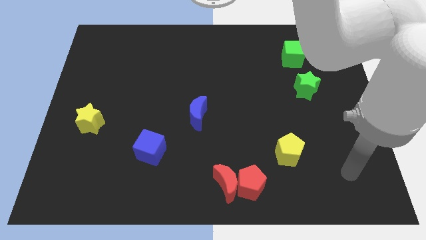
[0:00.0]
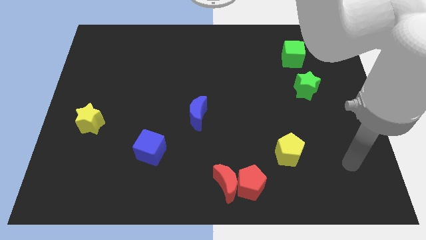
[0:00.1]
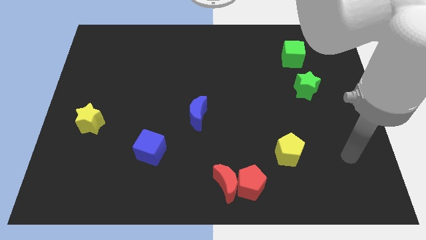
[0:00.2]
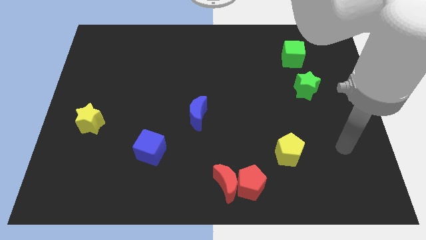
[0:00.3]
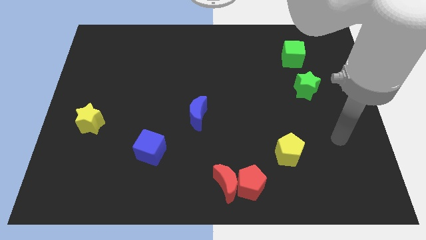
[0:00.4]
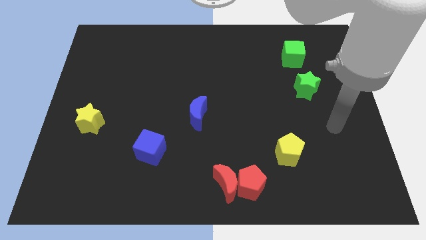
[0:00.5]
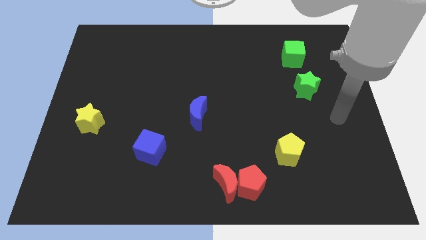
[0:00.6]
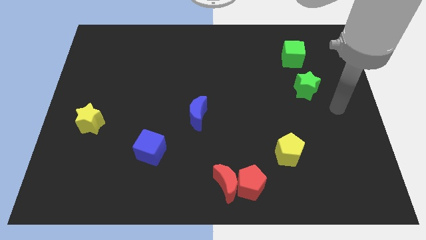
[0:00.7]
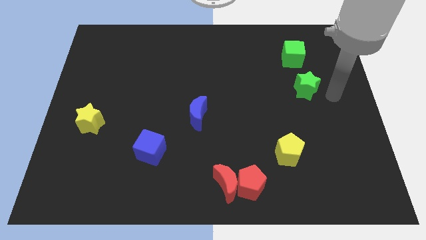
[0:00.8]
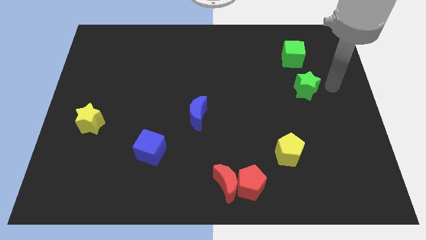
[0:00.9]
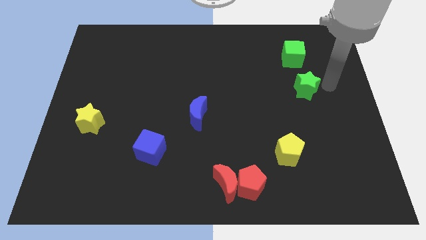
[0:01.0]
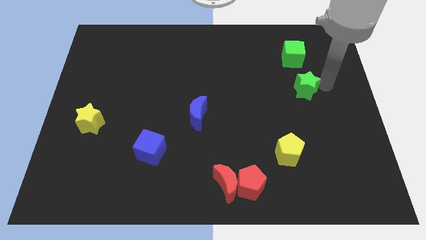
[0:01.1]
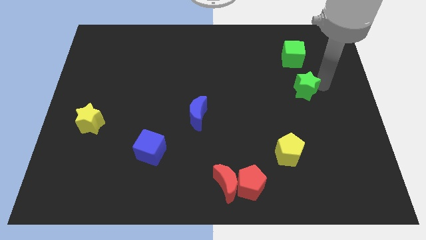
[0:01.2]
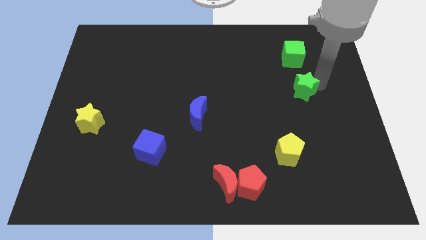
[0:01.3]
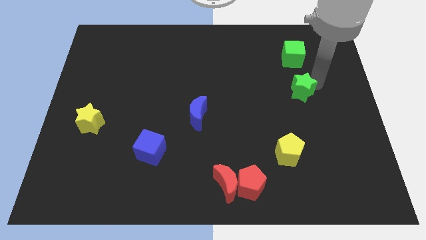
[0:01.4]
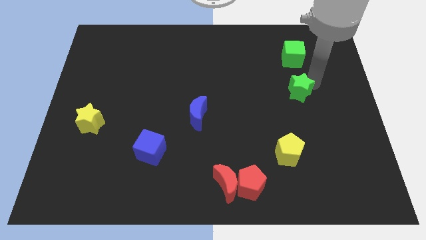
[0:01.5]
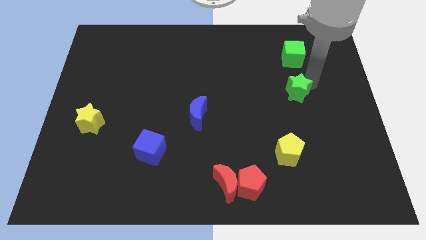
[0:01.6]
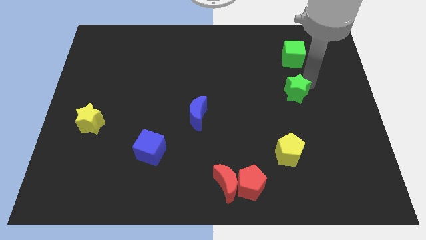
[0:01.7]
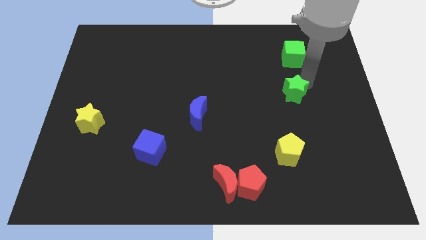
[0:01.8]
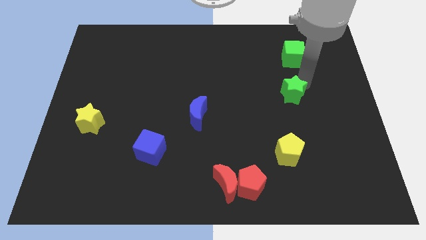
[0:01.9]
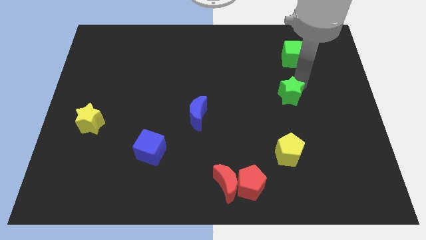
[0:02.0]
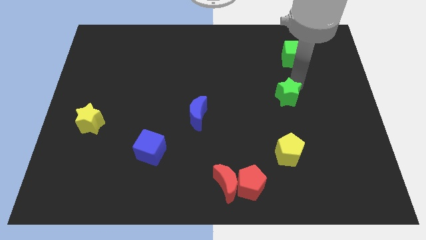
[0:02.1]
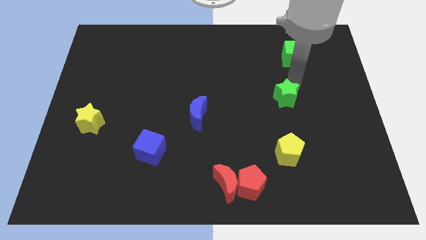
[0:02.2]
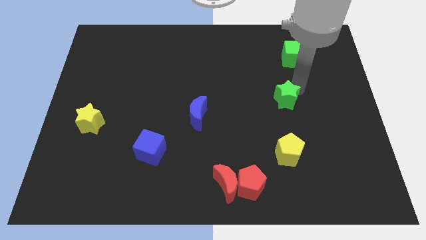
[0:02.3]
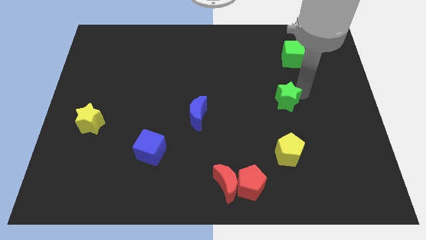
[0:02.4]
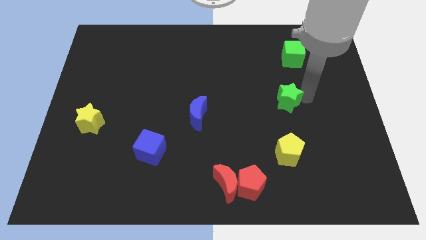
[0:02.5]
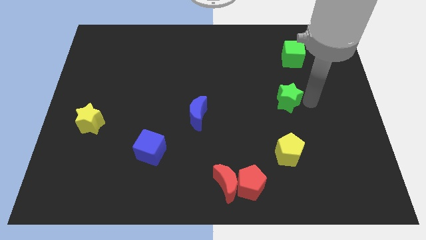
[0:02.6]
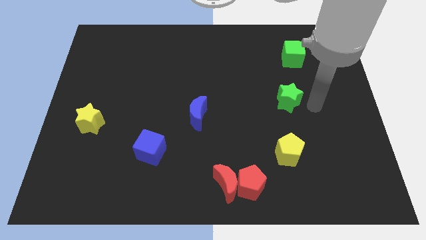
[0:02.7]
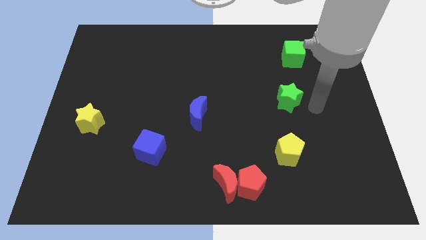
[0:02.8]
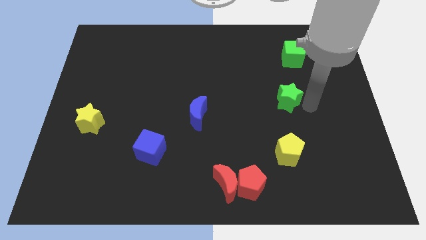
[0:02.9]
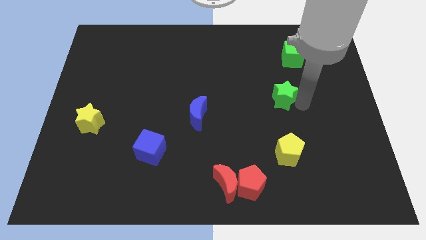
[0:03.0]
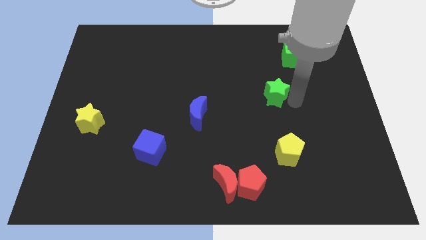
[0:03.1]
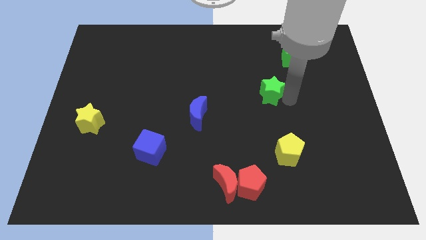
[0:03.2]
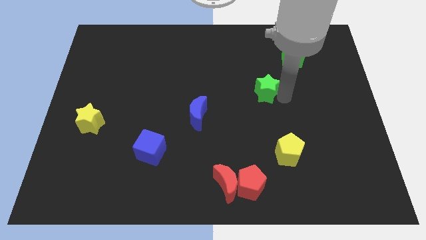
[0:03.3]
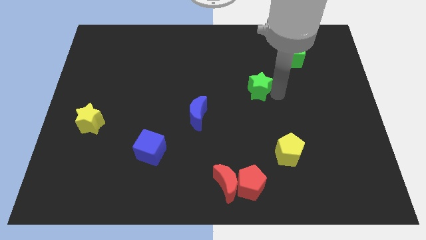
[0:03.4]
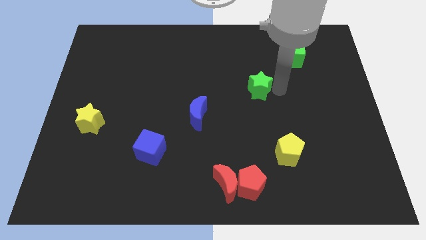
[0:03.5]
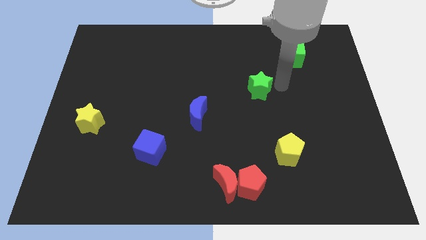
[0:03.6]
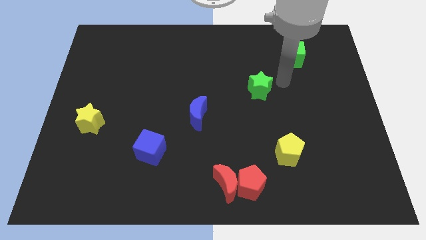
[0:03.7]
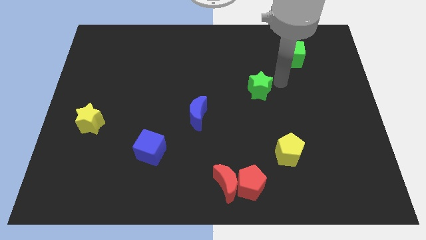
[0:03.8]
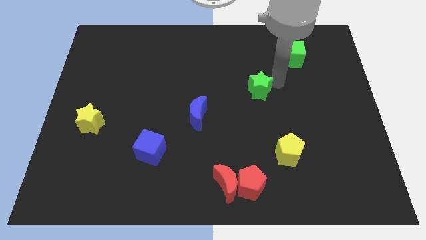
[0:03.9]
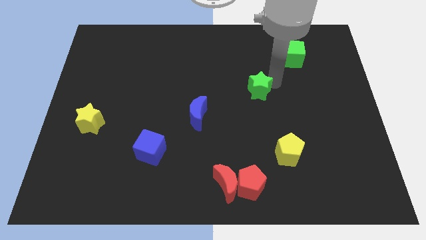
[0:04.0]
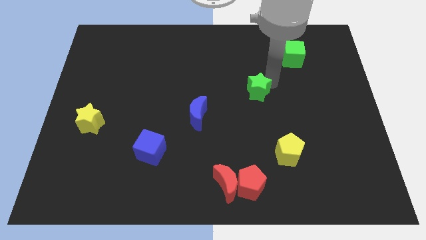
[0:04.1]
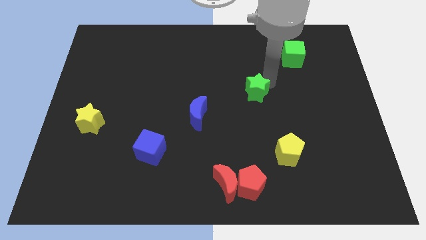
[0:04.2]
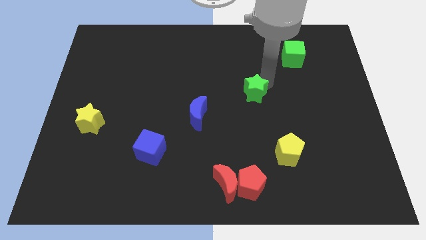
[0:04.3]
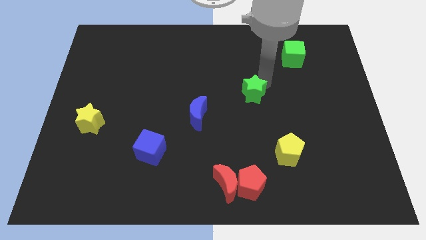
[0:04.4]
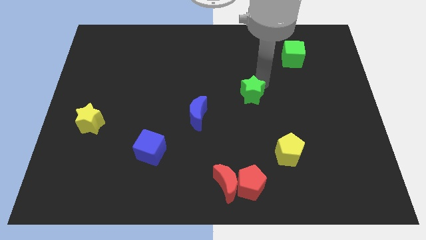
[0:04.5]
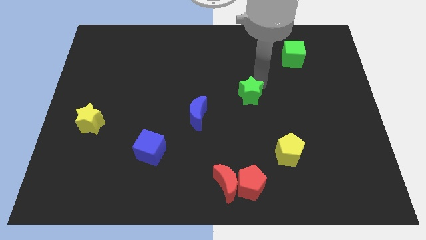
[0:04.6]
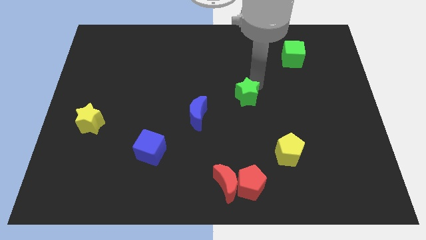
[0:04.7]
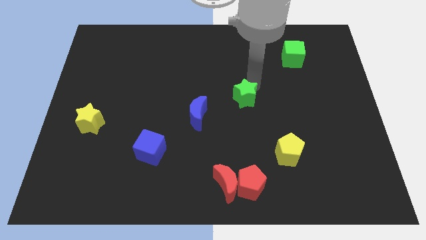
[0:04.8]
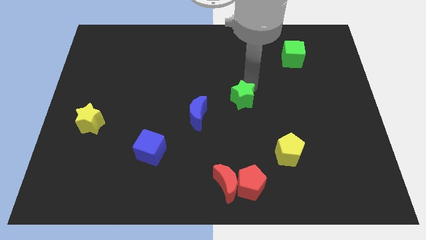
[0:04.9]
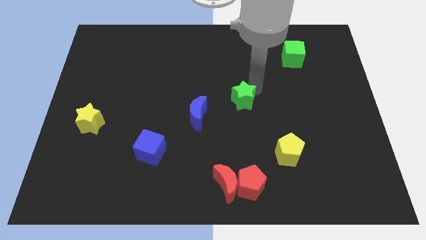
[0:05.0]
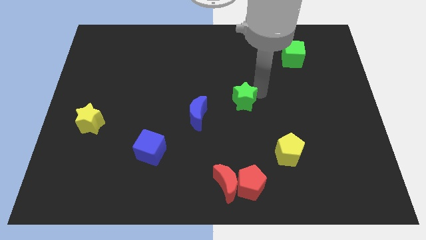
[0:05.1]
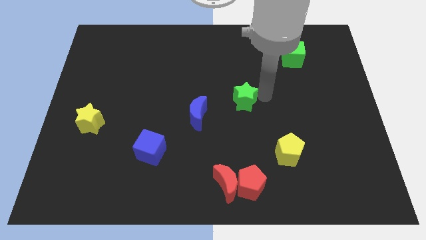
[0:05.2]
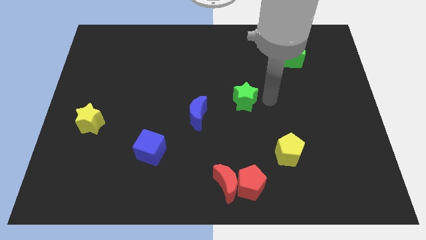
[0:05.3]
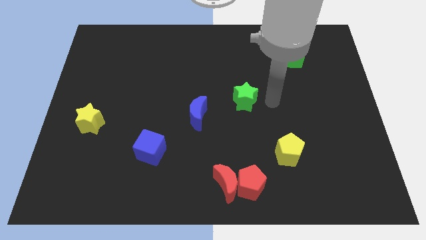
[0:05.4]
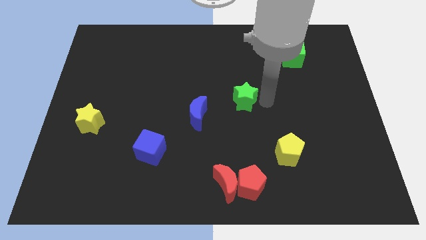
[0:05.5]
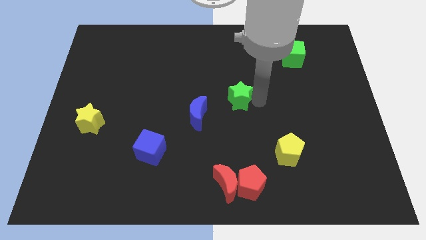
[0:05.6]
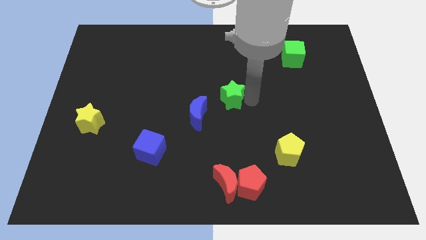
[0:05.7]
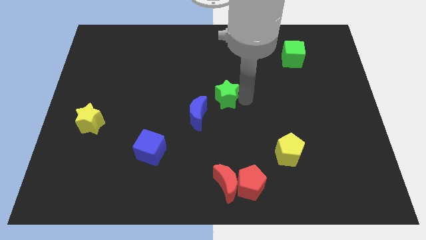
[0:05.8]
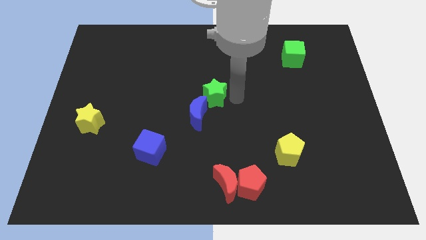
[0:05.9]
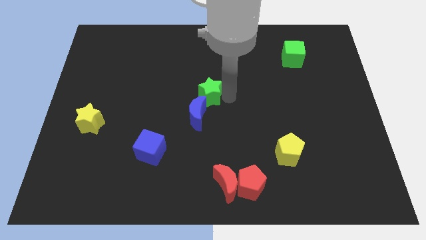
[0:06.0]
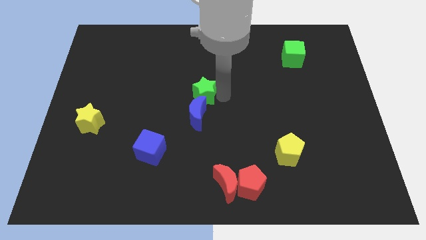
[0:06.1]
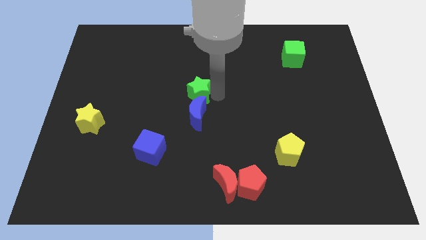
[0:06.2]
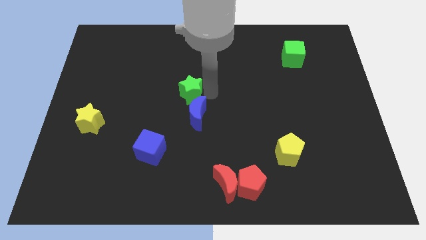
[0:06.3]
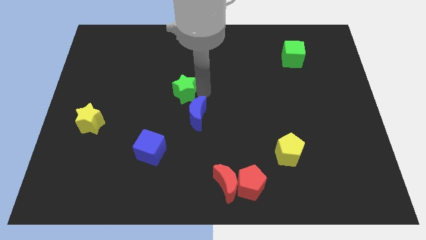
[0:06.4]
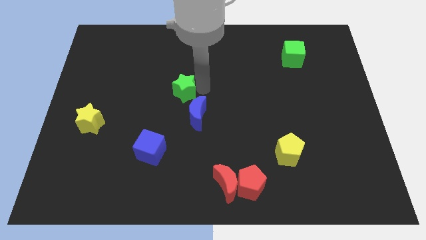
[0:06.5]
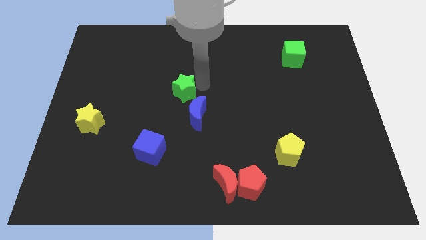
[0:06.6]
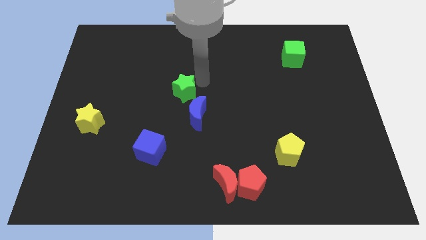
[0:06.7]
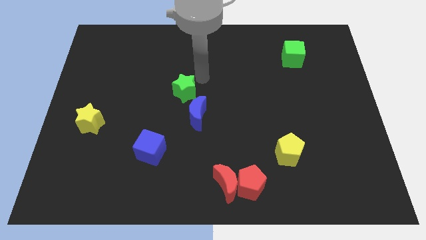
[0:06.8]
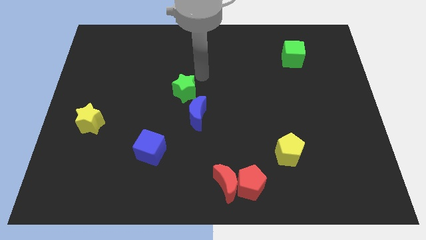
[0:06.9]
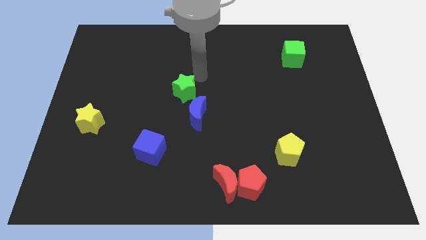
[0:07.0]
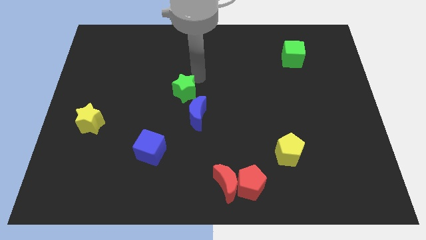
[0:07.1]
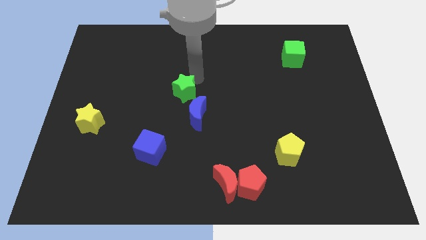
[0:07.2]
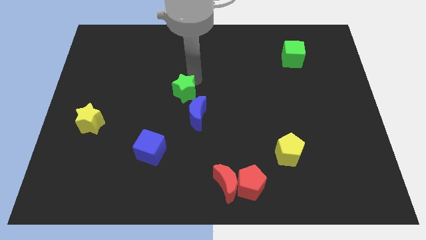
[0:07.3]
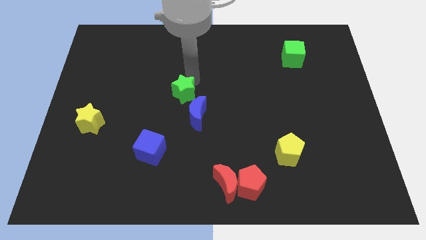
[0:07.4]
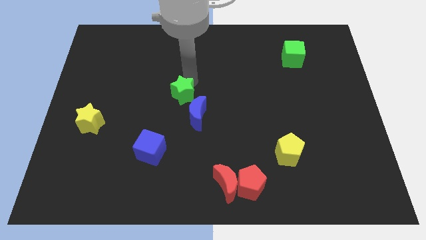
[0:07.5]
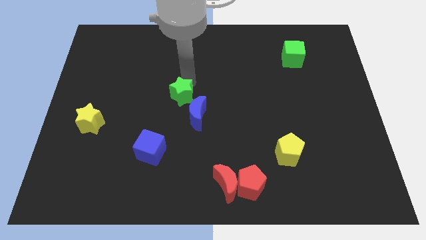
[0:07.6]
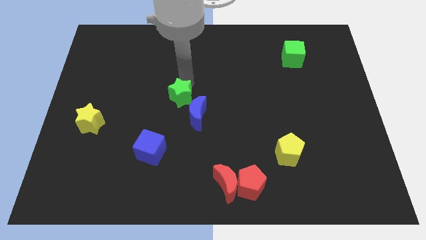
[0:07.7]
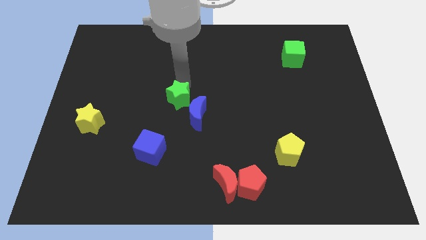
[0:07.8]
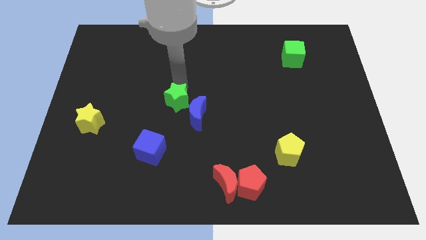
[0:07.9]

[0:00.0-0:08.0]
push the green star to the left side of the blue moon
